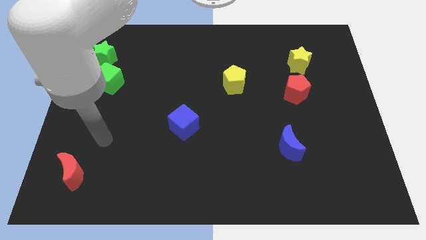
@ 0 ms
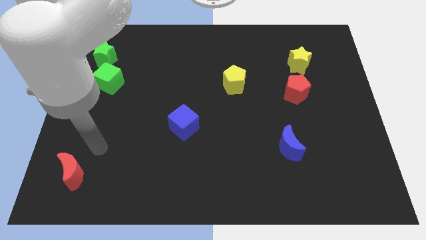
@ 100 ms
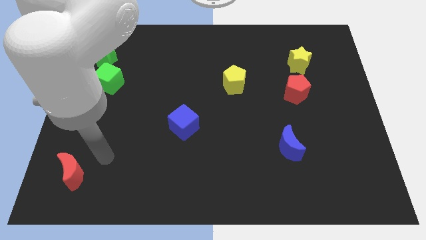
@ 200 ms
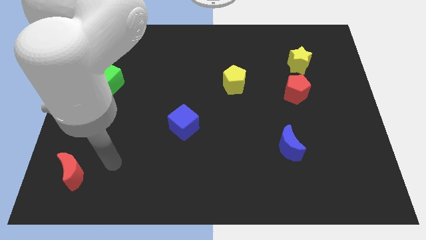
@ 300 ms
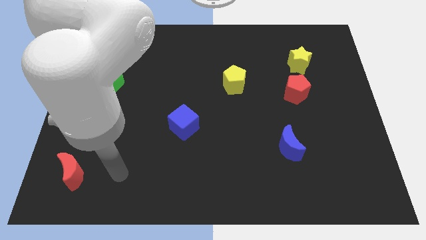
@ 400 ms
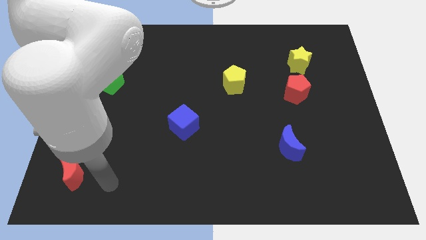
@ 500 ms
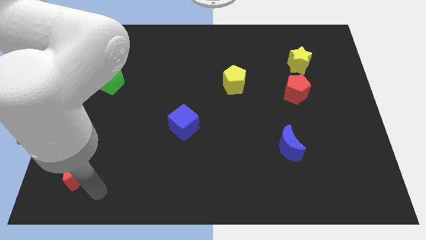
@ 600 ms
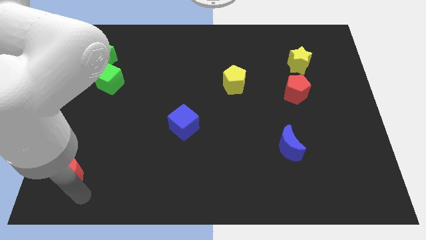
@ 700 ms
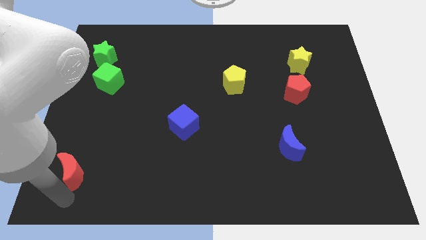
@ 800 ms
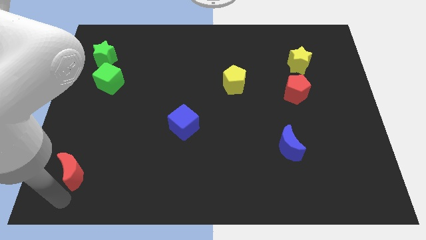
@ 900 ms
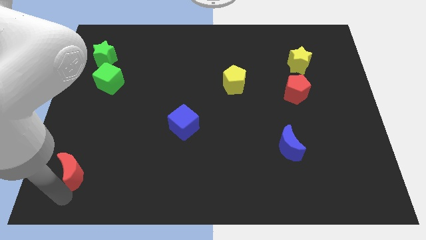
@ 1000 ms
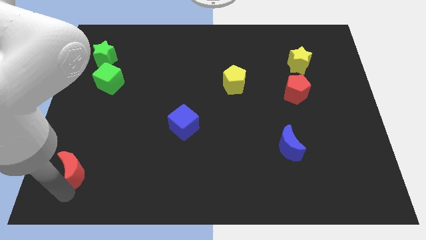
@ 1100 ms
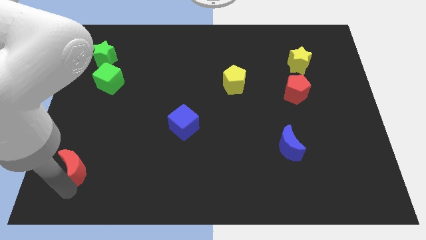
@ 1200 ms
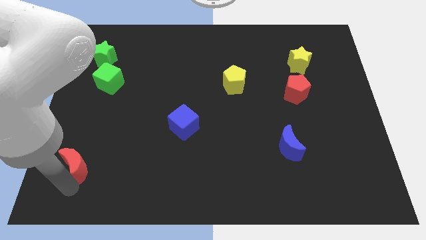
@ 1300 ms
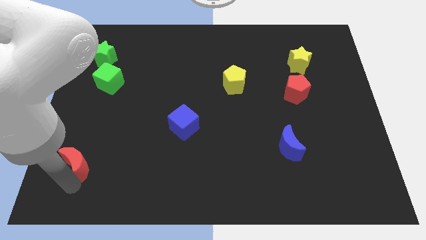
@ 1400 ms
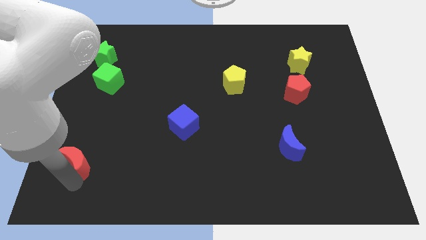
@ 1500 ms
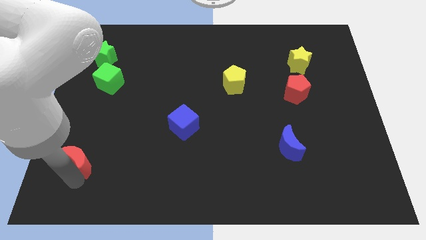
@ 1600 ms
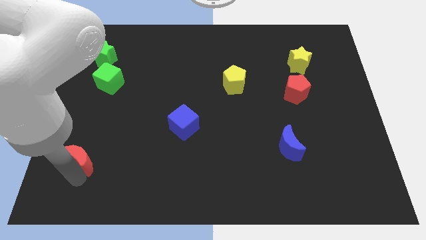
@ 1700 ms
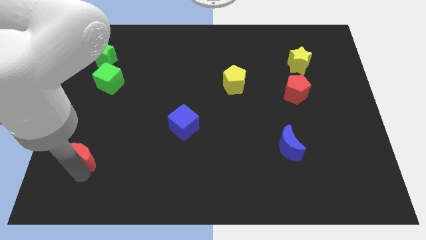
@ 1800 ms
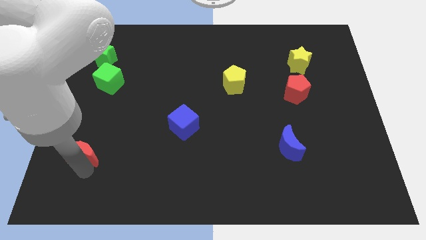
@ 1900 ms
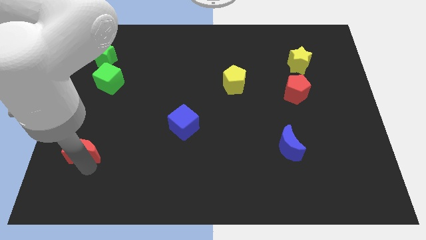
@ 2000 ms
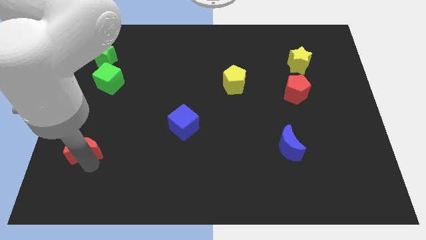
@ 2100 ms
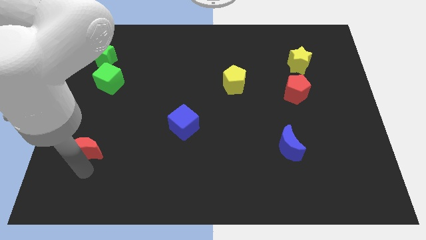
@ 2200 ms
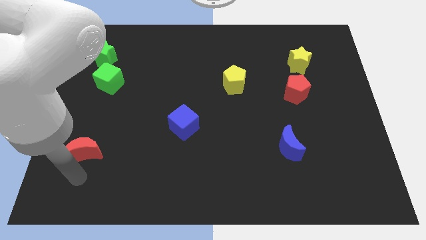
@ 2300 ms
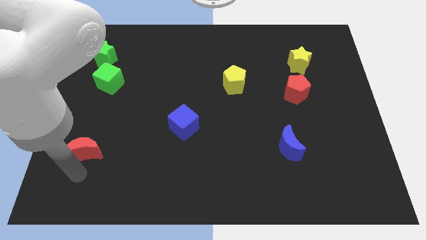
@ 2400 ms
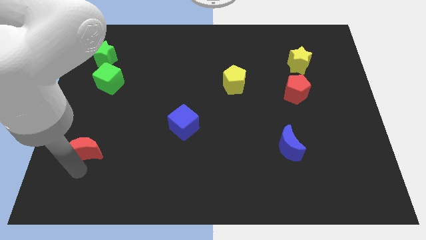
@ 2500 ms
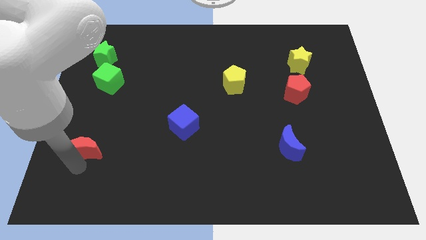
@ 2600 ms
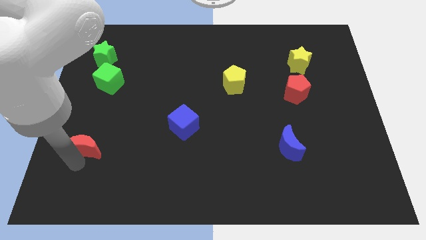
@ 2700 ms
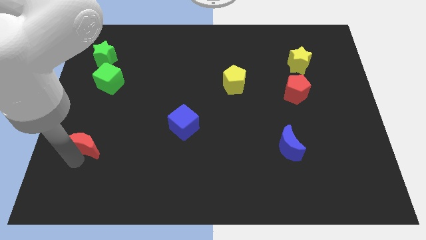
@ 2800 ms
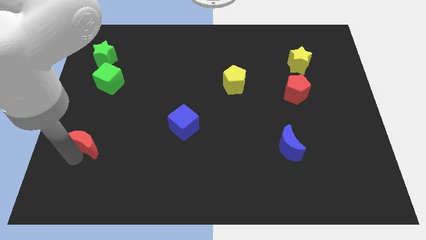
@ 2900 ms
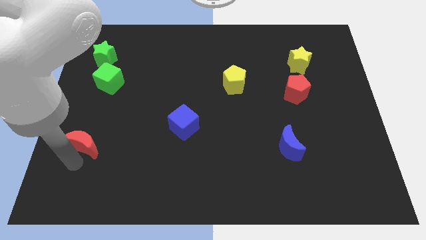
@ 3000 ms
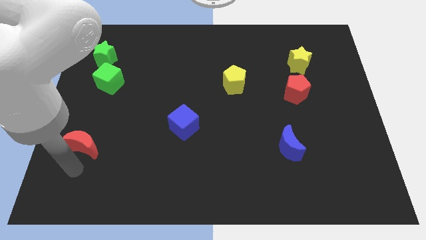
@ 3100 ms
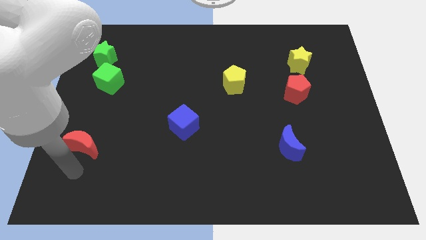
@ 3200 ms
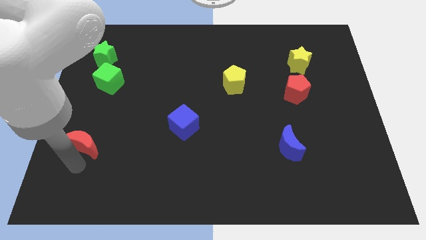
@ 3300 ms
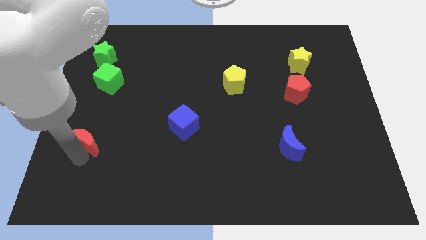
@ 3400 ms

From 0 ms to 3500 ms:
push the red moon upwards slightly

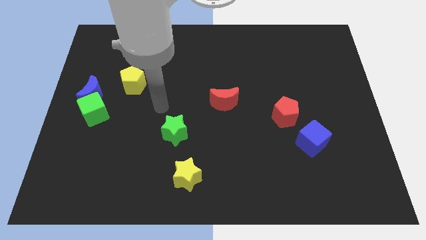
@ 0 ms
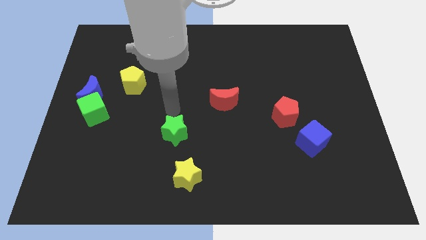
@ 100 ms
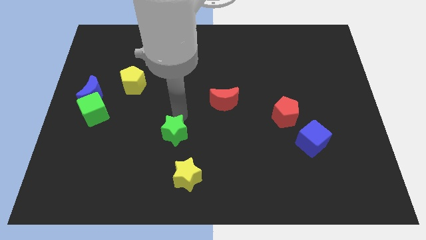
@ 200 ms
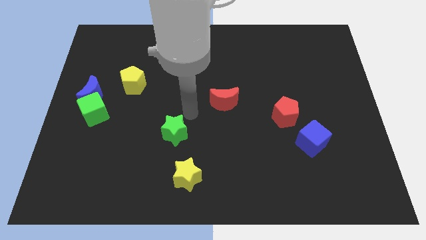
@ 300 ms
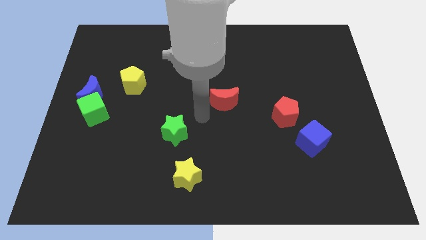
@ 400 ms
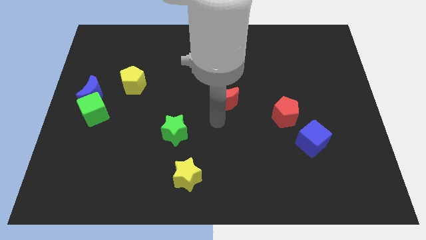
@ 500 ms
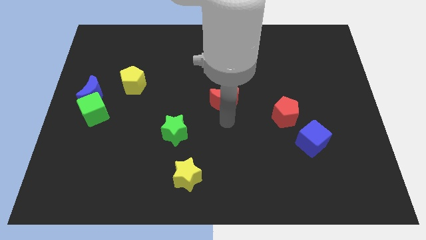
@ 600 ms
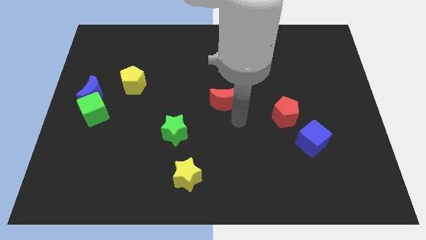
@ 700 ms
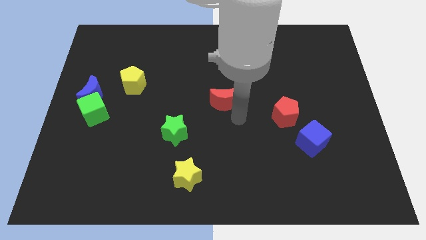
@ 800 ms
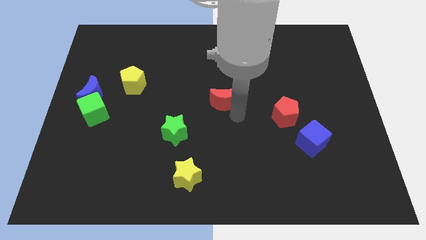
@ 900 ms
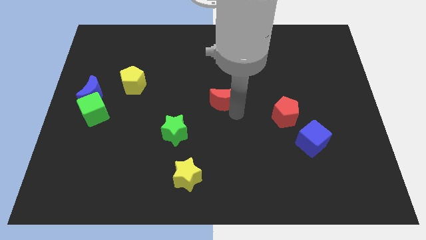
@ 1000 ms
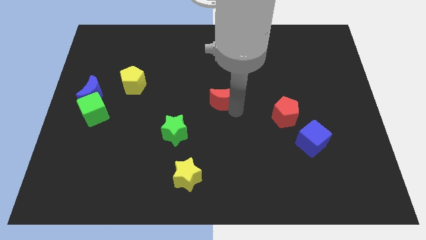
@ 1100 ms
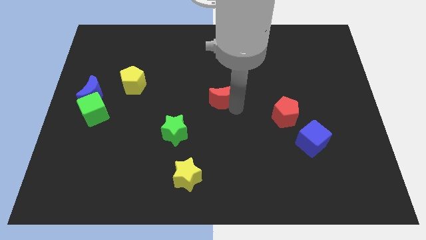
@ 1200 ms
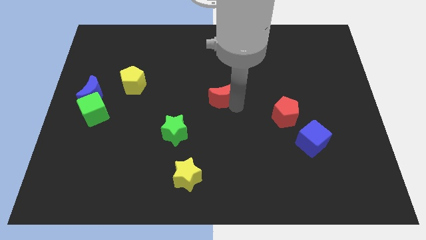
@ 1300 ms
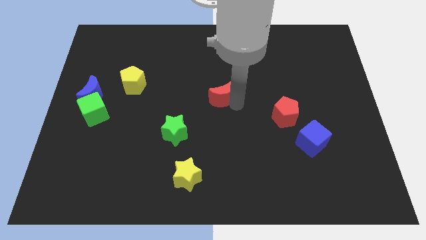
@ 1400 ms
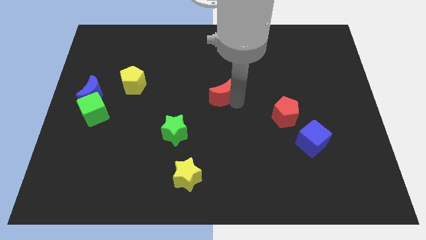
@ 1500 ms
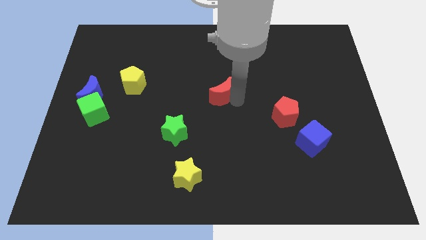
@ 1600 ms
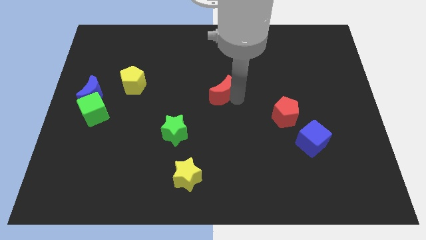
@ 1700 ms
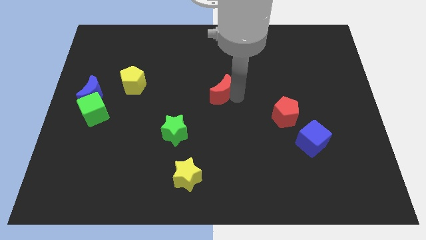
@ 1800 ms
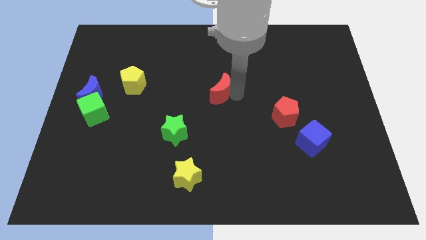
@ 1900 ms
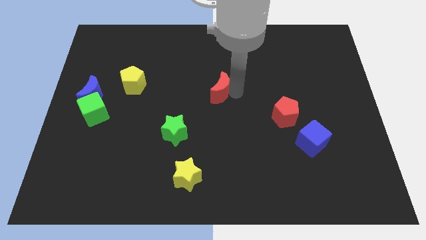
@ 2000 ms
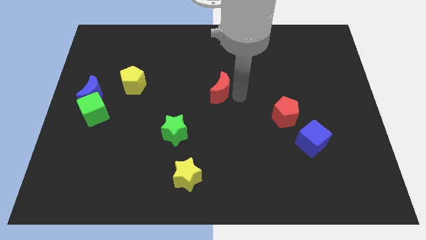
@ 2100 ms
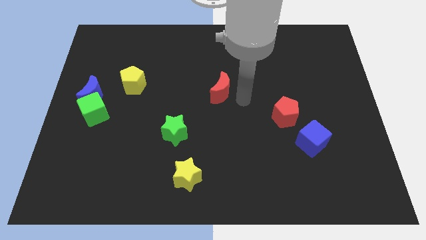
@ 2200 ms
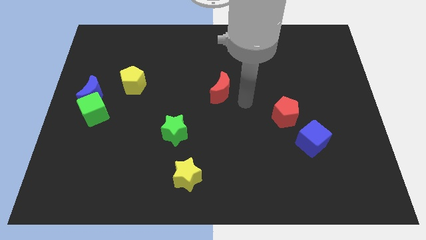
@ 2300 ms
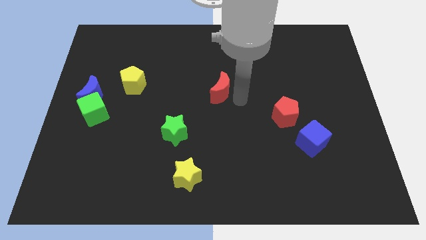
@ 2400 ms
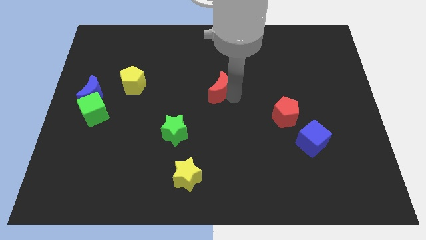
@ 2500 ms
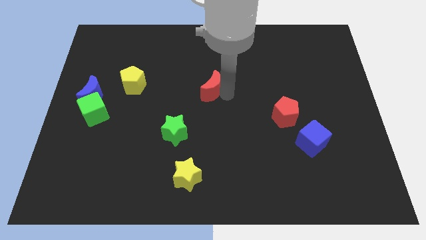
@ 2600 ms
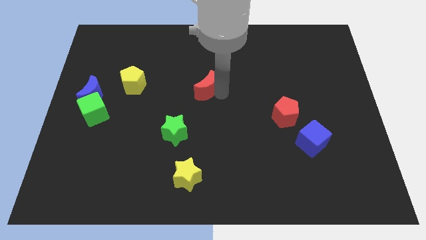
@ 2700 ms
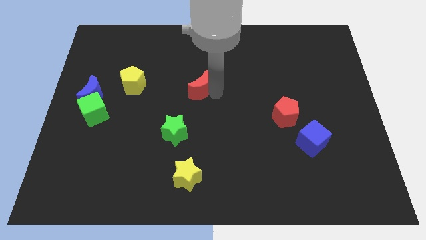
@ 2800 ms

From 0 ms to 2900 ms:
slightly push the red moon up and to the left diagonally

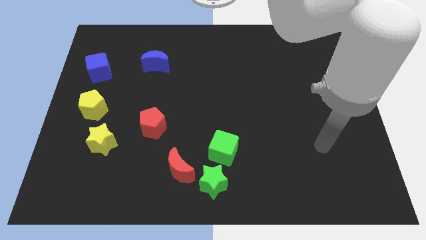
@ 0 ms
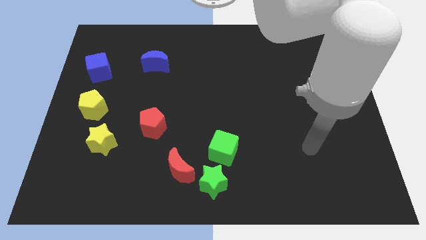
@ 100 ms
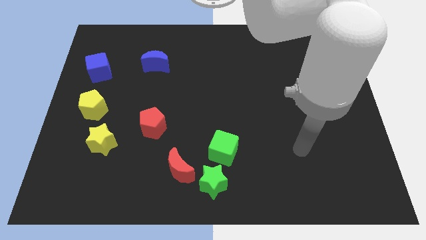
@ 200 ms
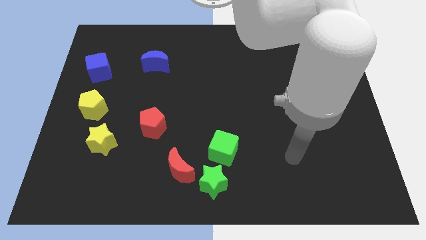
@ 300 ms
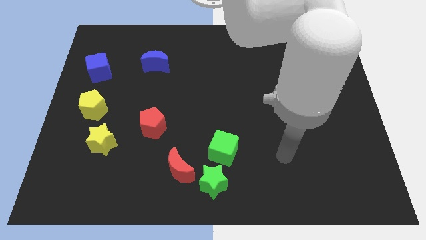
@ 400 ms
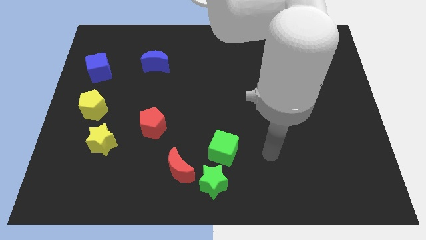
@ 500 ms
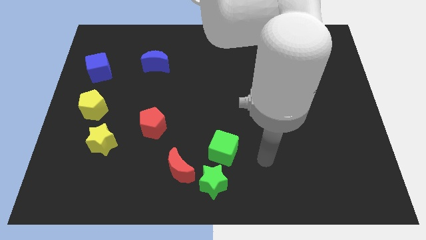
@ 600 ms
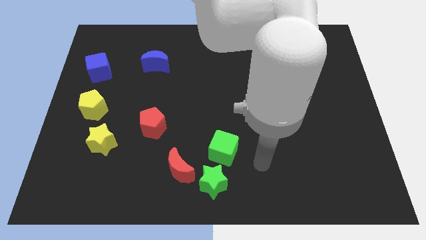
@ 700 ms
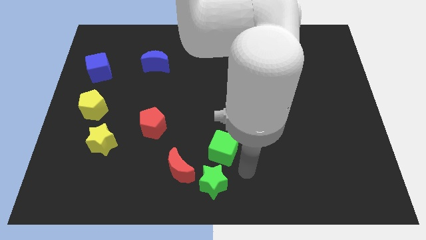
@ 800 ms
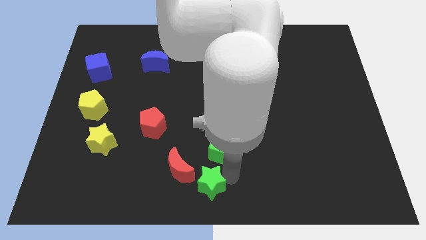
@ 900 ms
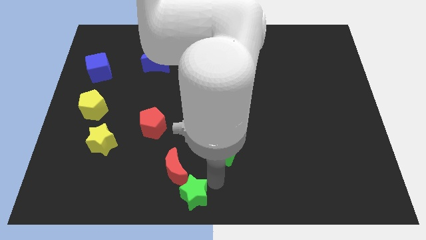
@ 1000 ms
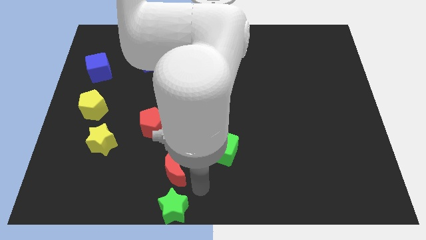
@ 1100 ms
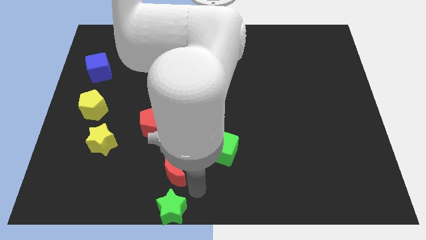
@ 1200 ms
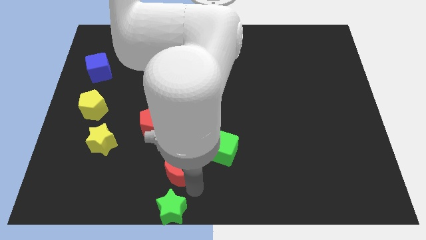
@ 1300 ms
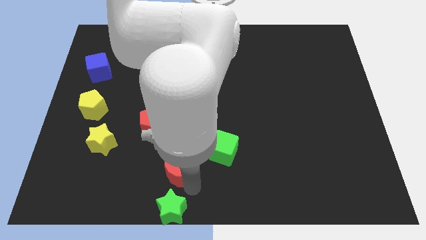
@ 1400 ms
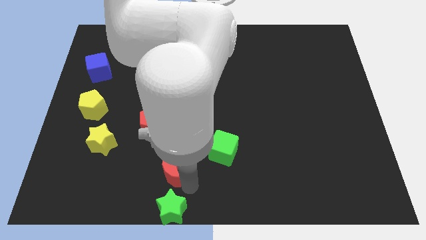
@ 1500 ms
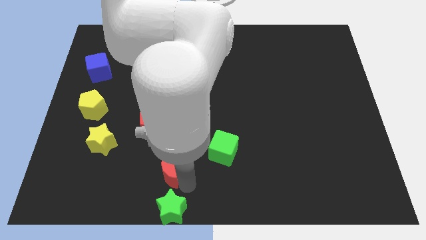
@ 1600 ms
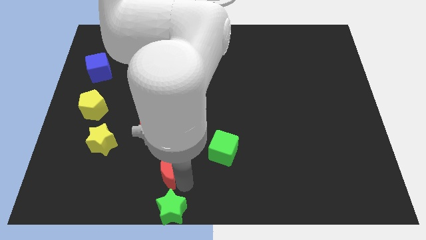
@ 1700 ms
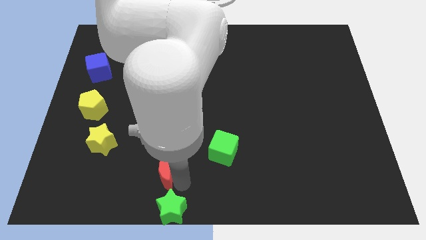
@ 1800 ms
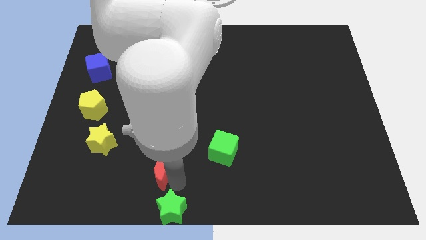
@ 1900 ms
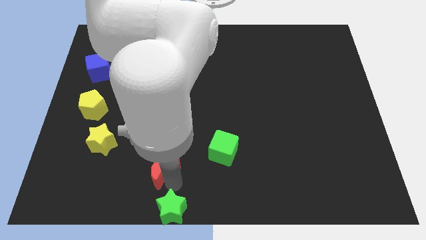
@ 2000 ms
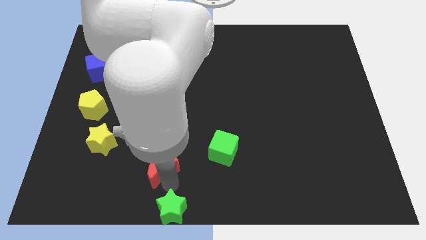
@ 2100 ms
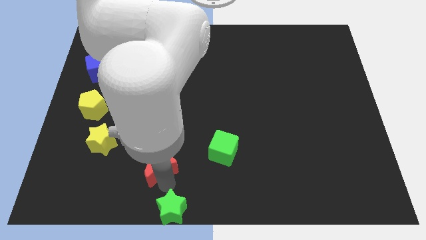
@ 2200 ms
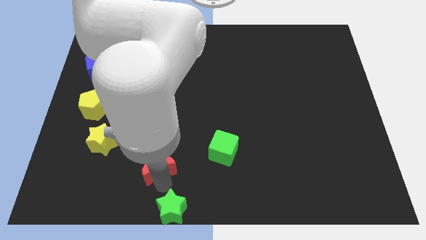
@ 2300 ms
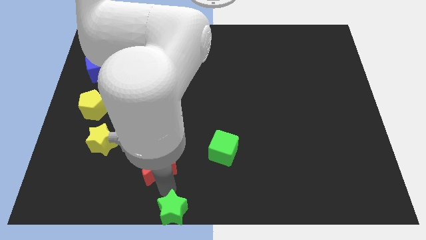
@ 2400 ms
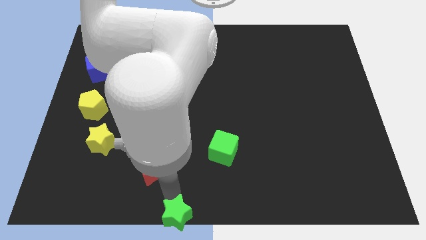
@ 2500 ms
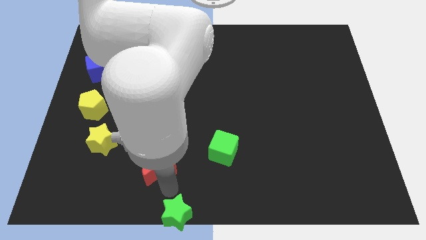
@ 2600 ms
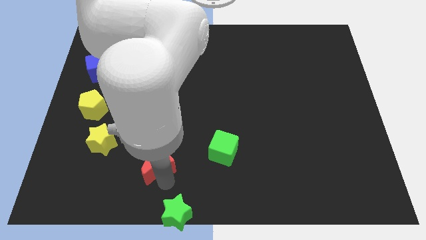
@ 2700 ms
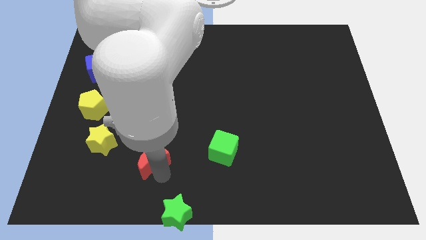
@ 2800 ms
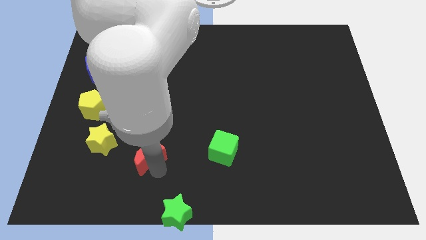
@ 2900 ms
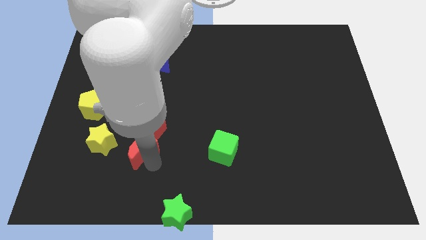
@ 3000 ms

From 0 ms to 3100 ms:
push the red moon up and then left a bit
